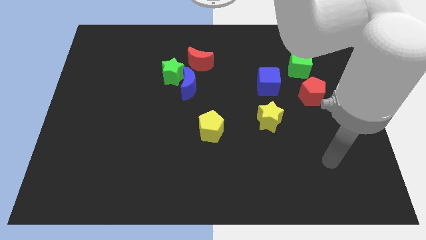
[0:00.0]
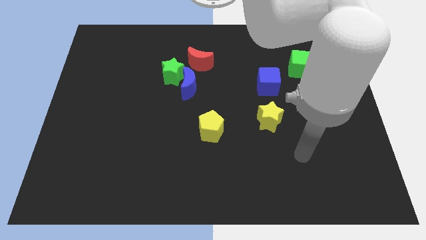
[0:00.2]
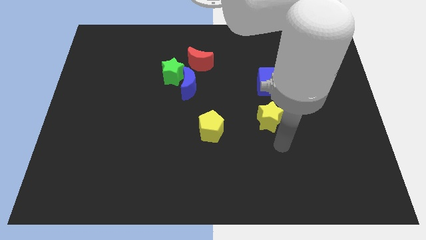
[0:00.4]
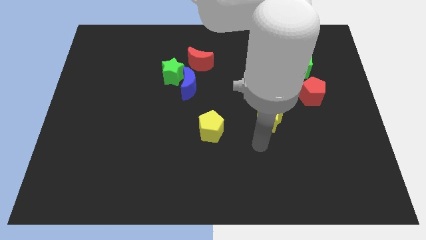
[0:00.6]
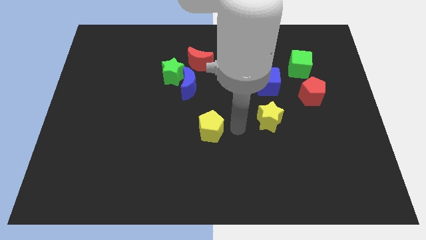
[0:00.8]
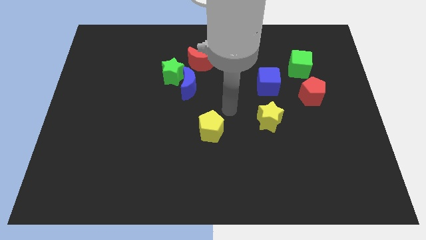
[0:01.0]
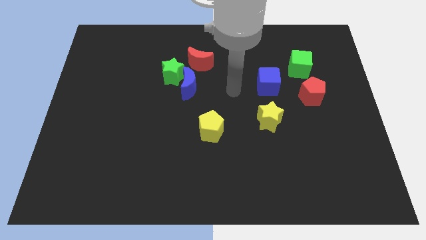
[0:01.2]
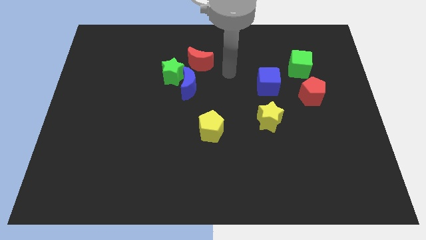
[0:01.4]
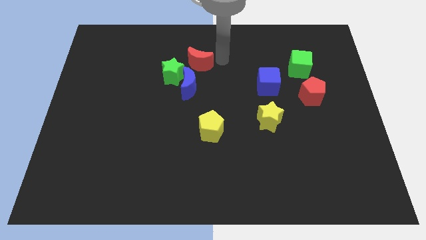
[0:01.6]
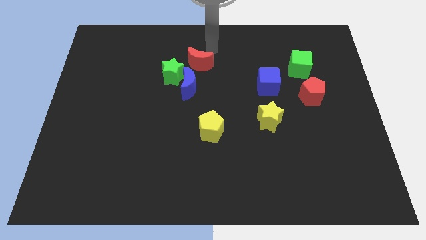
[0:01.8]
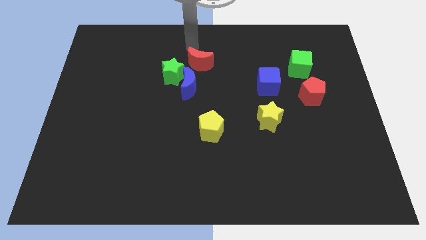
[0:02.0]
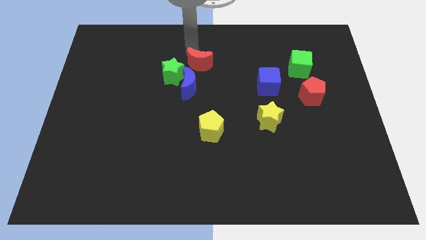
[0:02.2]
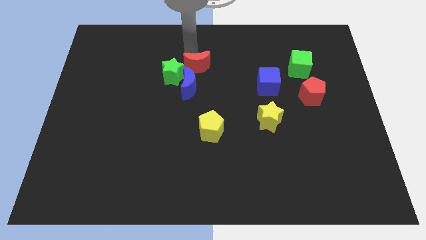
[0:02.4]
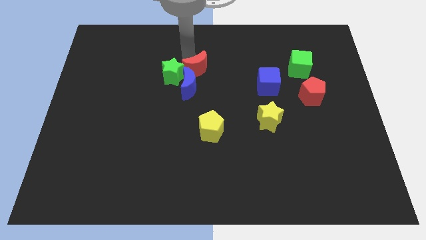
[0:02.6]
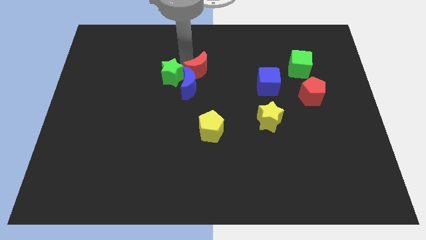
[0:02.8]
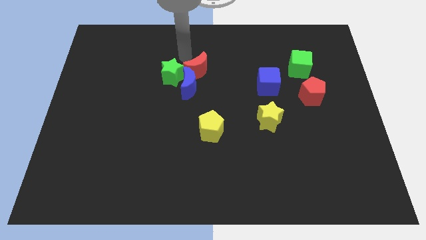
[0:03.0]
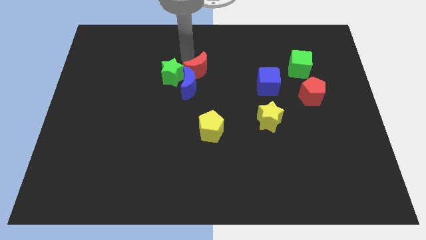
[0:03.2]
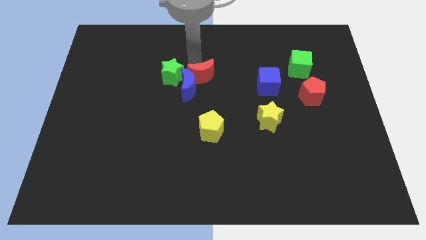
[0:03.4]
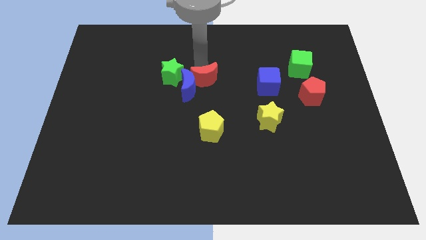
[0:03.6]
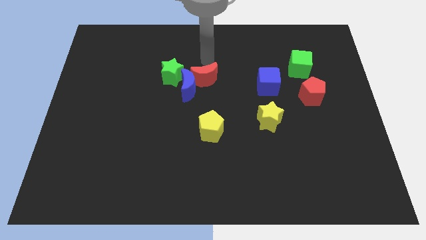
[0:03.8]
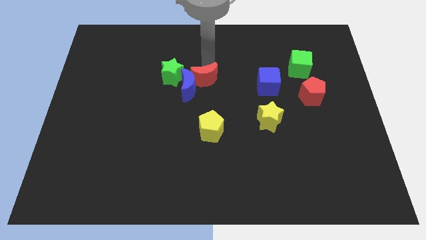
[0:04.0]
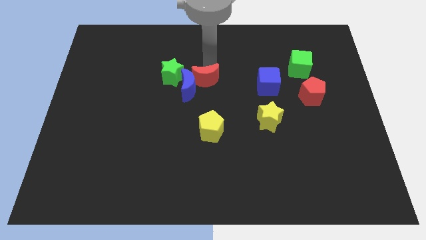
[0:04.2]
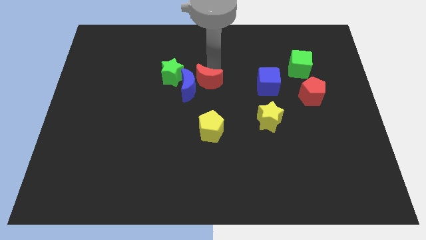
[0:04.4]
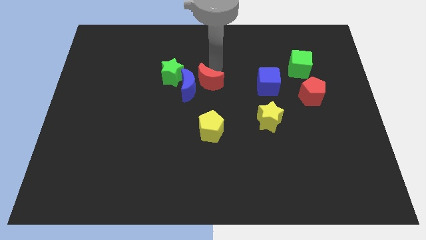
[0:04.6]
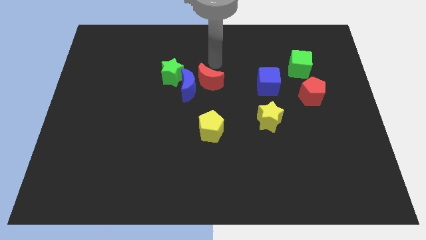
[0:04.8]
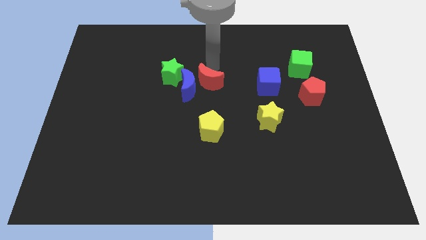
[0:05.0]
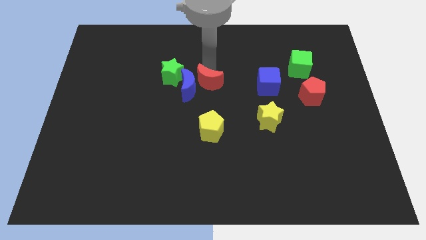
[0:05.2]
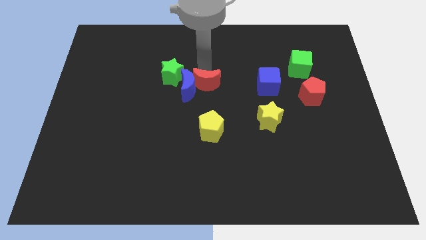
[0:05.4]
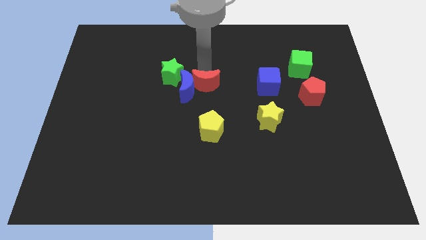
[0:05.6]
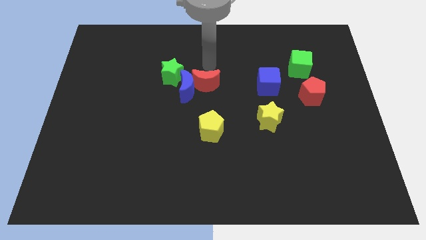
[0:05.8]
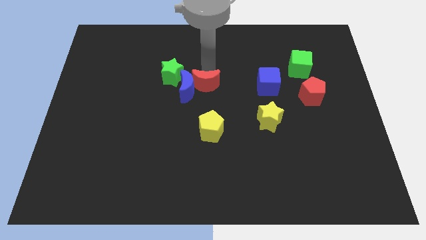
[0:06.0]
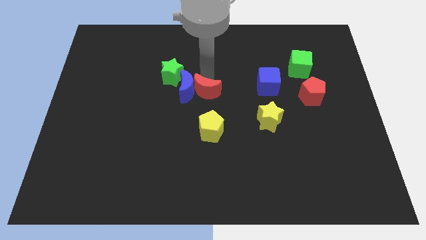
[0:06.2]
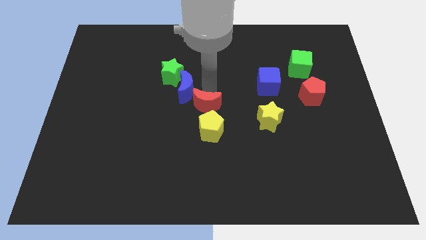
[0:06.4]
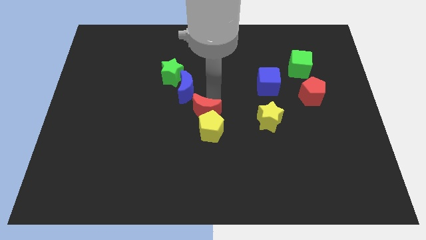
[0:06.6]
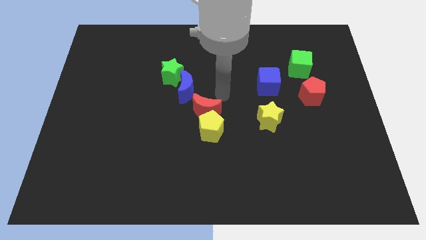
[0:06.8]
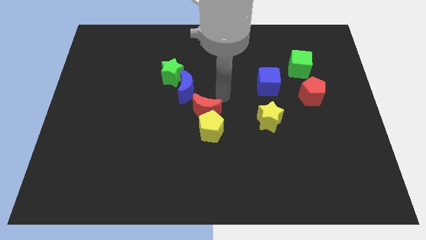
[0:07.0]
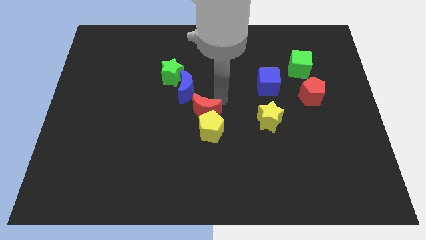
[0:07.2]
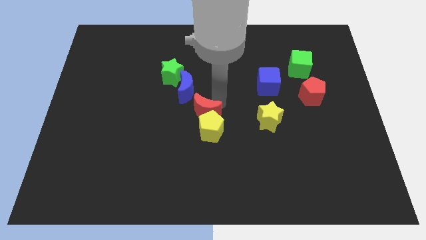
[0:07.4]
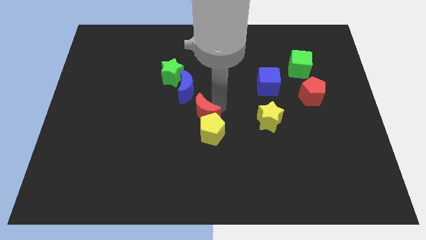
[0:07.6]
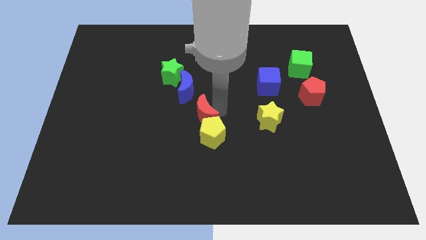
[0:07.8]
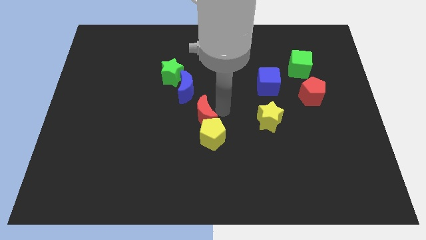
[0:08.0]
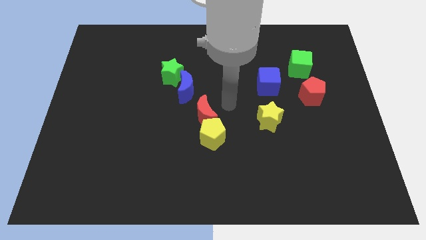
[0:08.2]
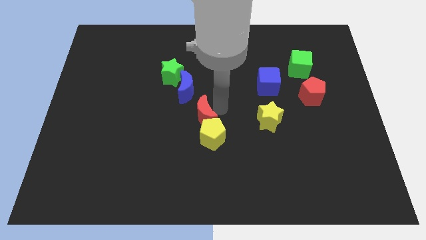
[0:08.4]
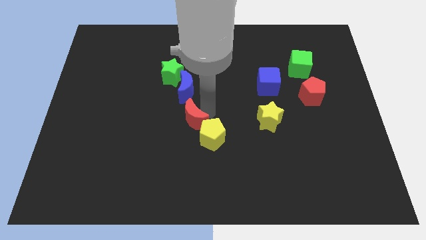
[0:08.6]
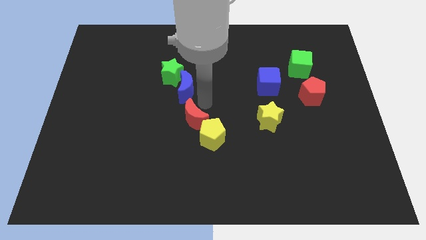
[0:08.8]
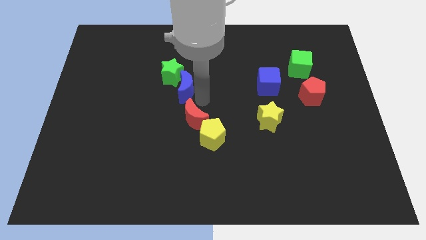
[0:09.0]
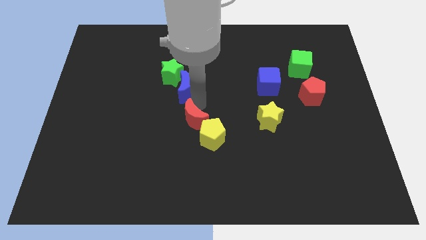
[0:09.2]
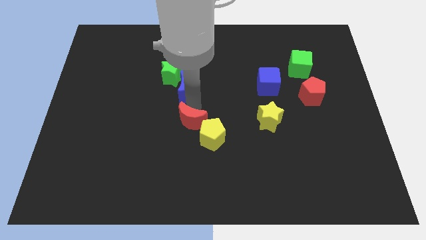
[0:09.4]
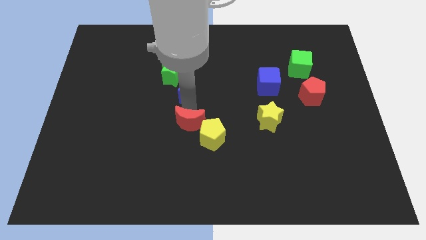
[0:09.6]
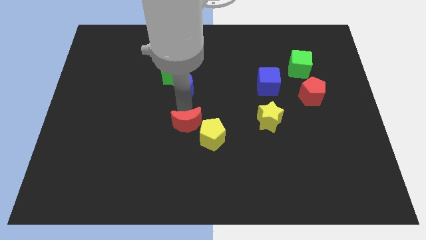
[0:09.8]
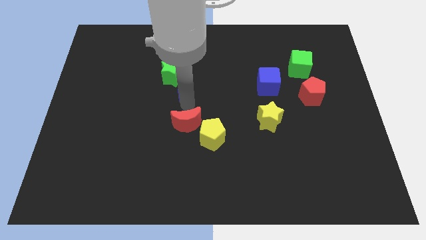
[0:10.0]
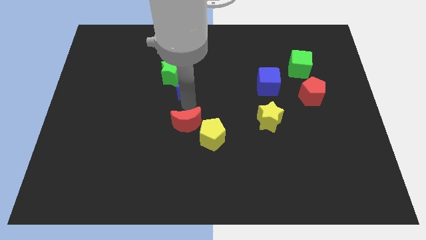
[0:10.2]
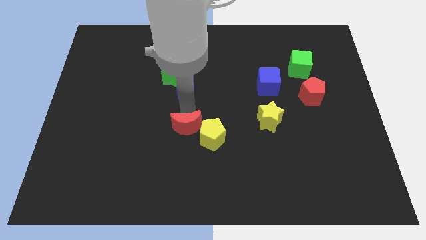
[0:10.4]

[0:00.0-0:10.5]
push the red moon downwards

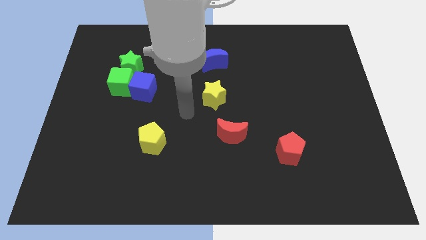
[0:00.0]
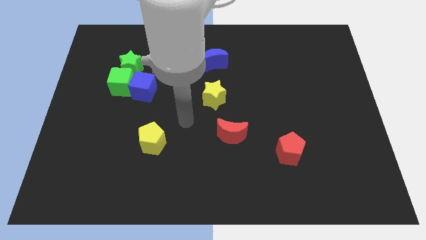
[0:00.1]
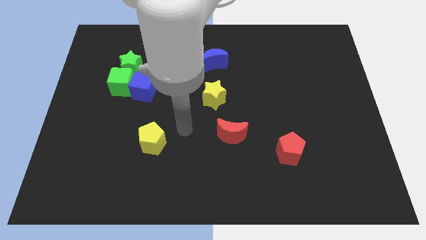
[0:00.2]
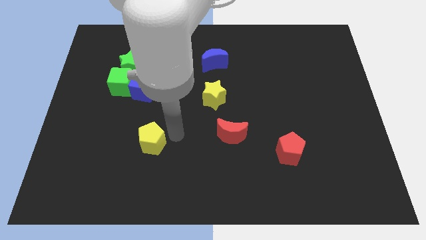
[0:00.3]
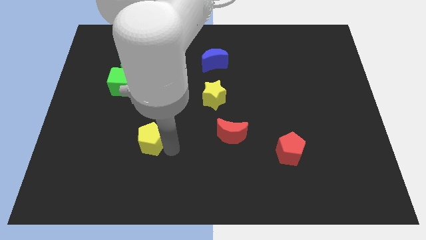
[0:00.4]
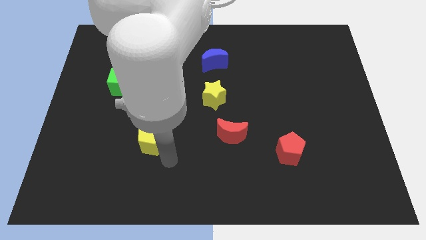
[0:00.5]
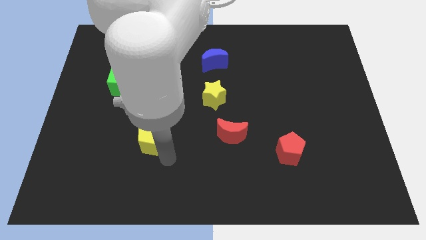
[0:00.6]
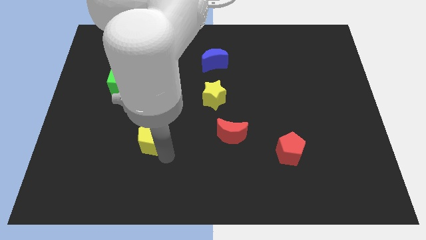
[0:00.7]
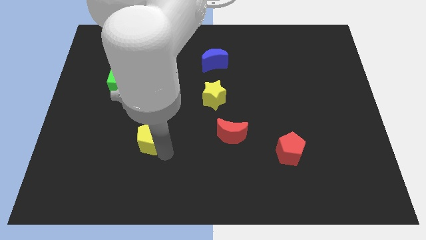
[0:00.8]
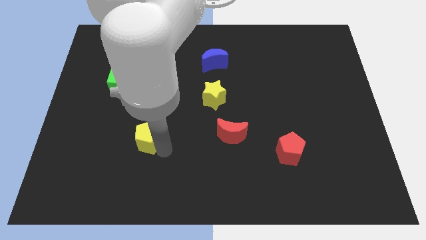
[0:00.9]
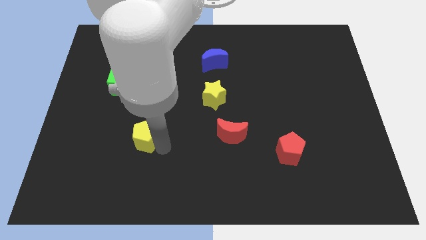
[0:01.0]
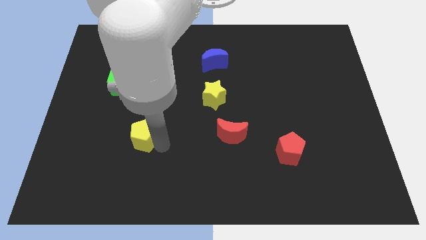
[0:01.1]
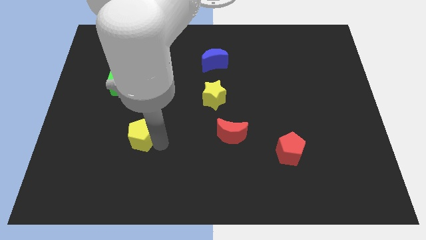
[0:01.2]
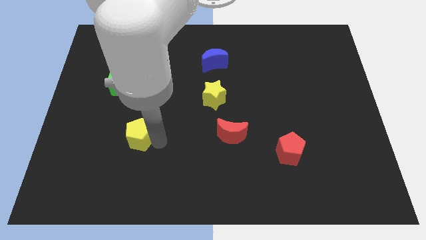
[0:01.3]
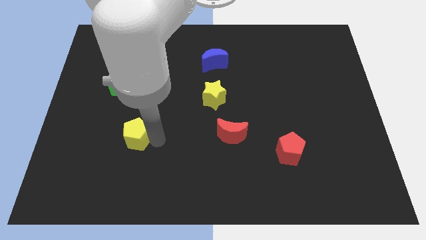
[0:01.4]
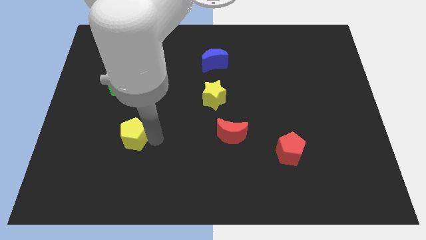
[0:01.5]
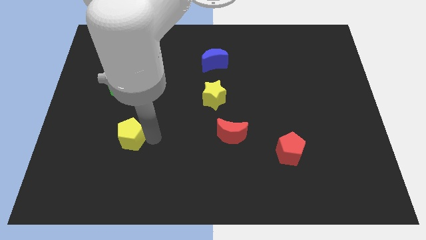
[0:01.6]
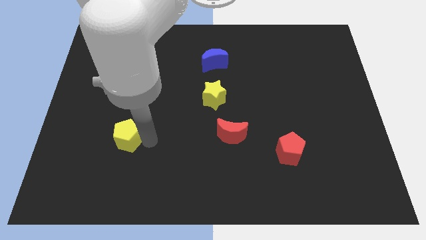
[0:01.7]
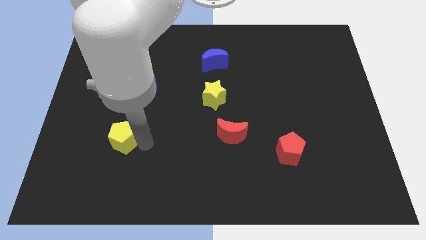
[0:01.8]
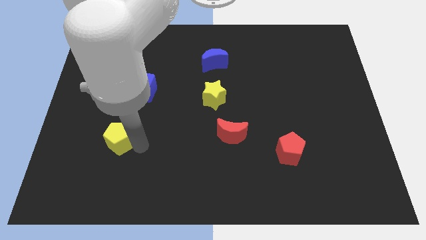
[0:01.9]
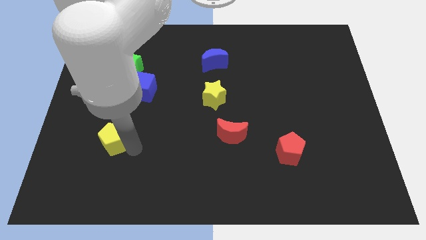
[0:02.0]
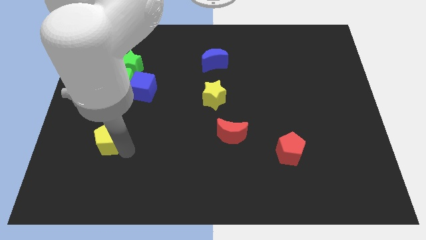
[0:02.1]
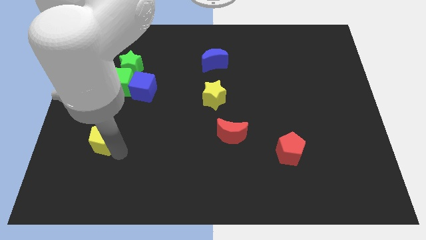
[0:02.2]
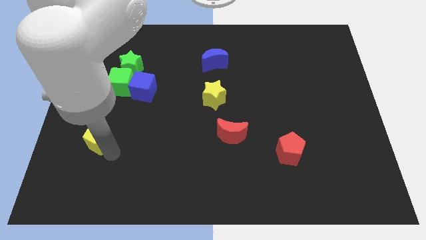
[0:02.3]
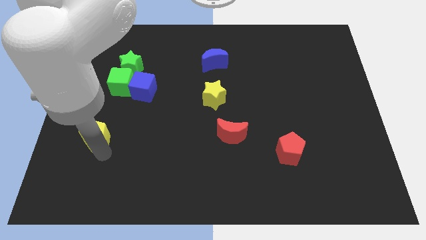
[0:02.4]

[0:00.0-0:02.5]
slightly move the yellow pentagon diagonally up and to the left

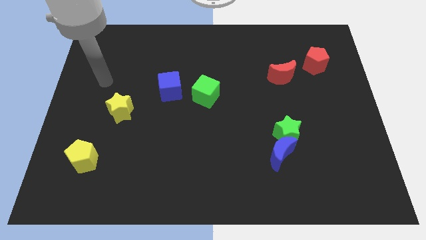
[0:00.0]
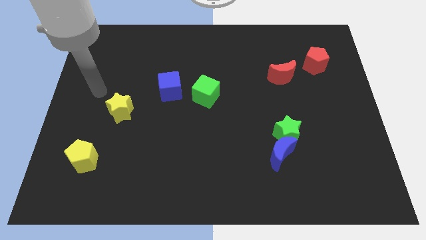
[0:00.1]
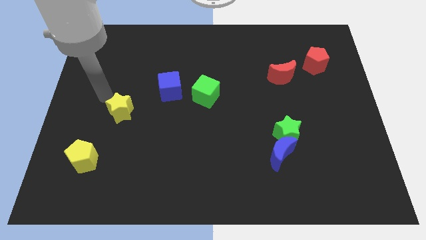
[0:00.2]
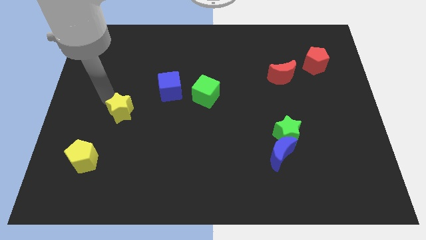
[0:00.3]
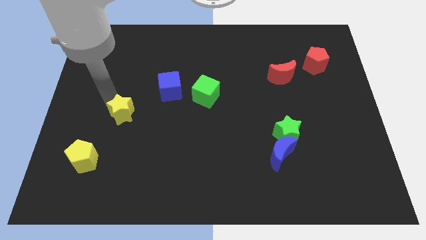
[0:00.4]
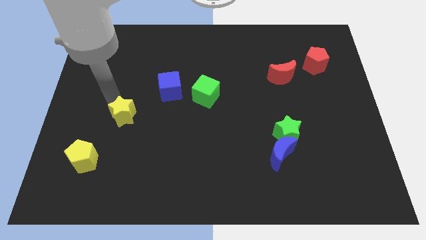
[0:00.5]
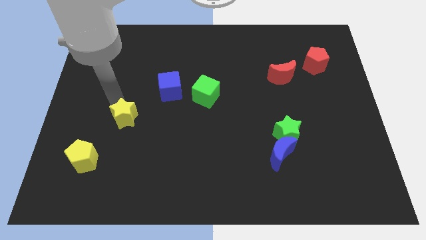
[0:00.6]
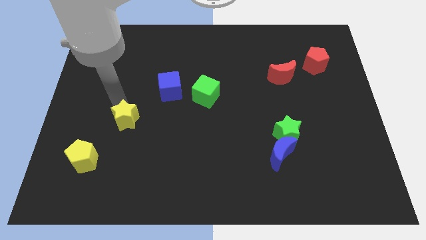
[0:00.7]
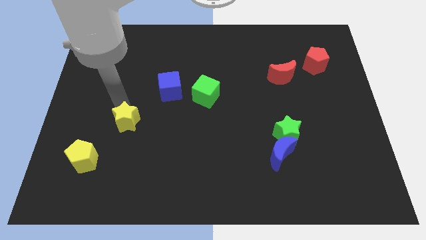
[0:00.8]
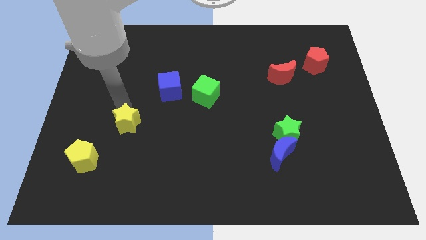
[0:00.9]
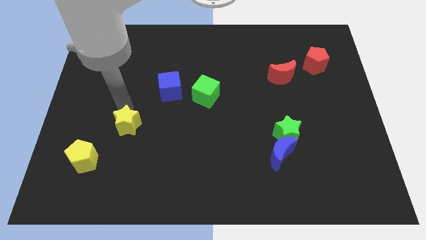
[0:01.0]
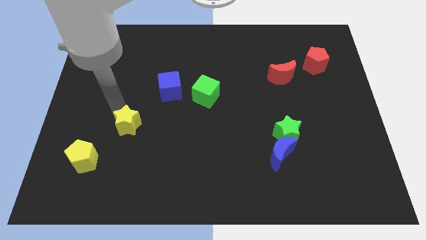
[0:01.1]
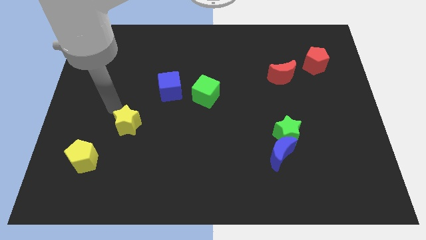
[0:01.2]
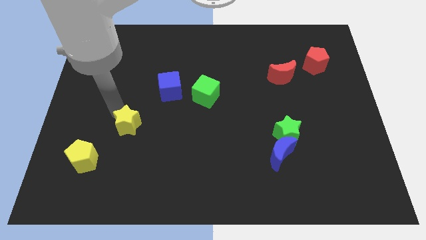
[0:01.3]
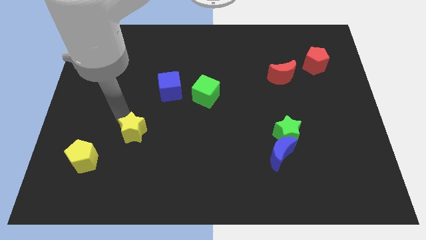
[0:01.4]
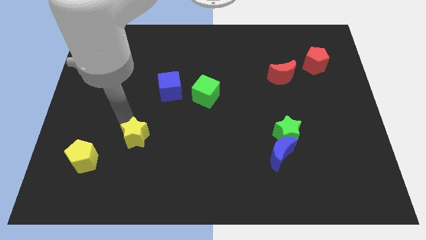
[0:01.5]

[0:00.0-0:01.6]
slightly push the yellow star downwards and to the right
